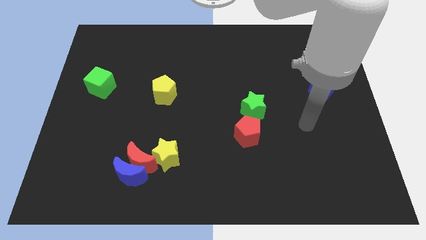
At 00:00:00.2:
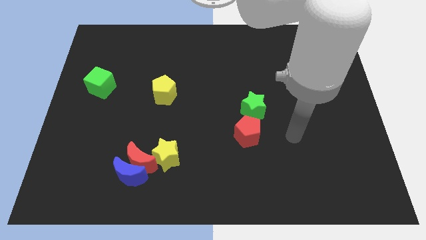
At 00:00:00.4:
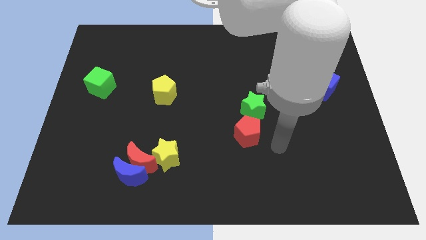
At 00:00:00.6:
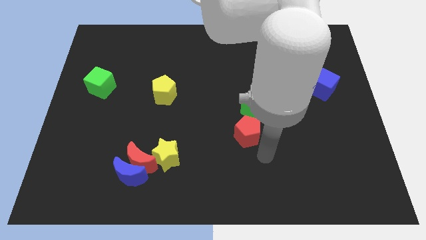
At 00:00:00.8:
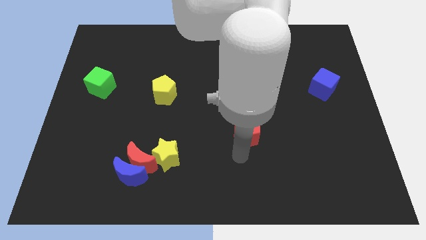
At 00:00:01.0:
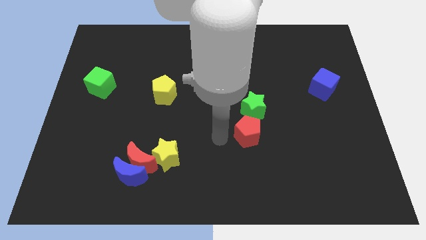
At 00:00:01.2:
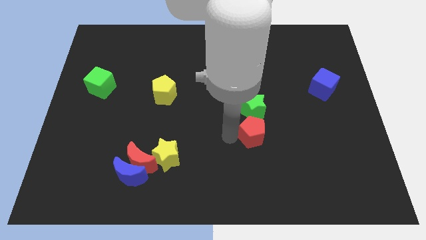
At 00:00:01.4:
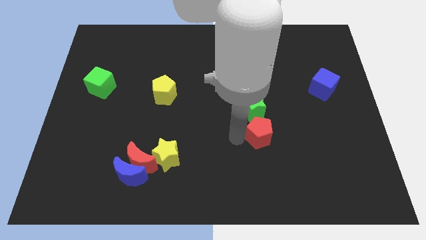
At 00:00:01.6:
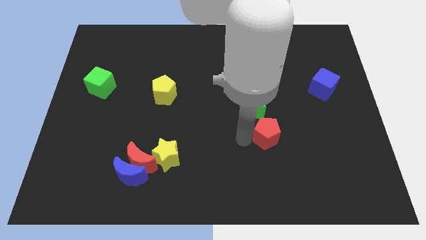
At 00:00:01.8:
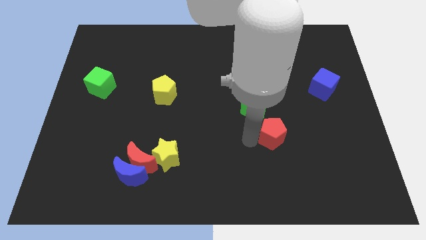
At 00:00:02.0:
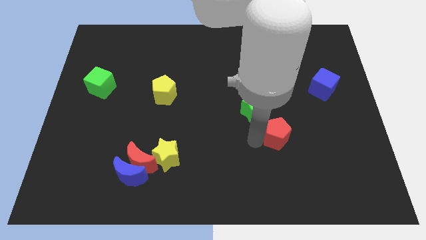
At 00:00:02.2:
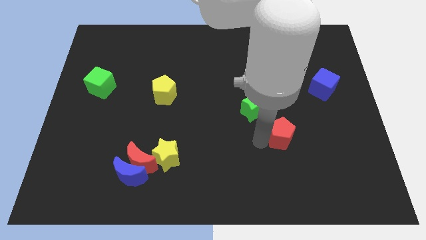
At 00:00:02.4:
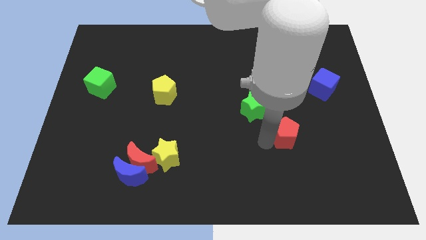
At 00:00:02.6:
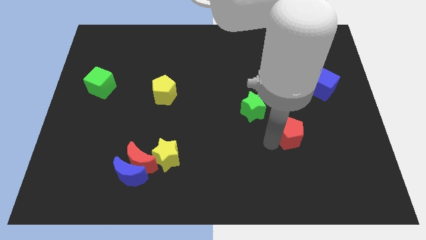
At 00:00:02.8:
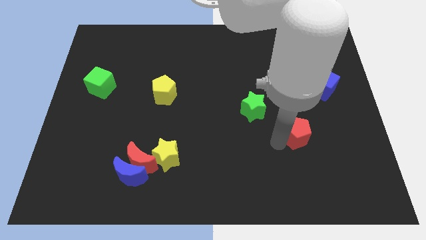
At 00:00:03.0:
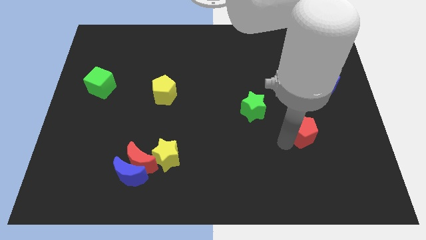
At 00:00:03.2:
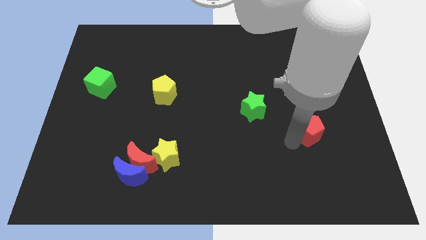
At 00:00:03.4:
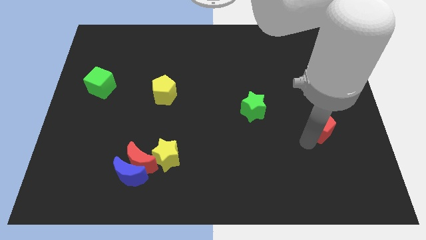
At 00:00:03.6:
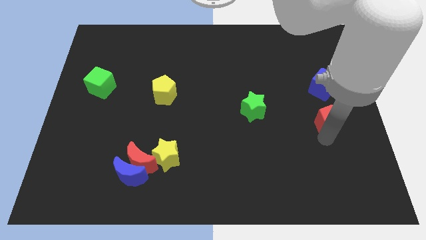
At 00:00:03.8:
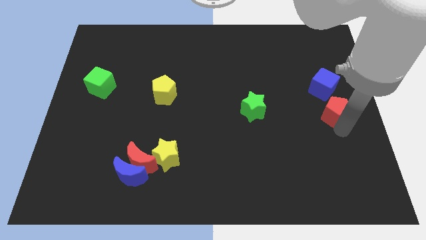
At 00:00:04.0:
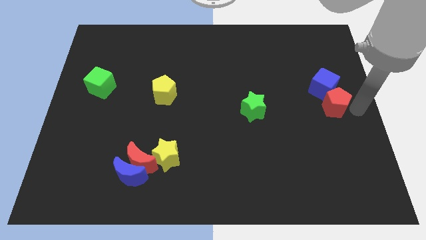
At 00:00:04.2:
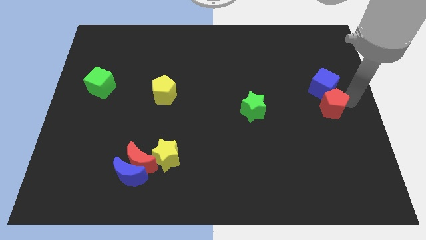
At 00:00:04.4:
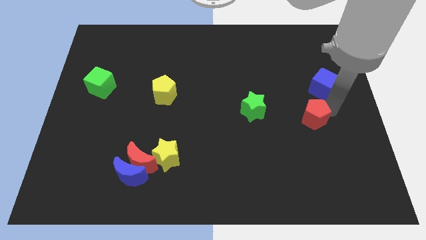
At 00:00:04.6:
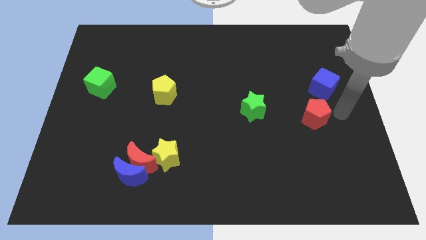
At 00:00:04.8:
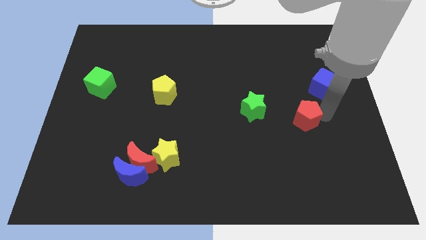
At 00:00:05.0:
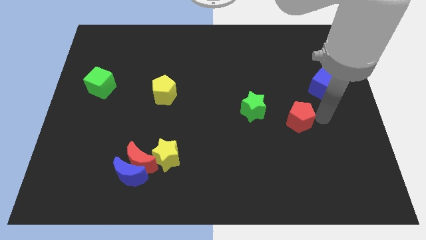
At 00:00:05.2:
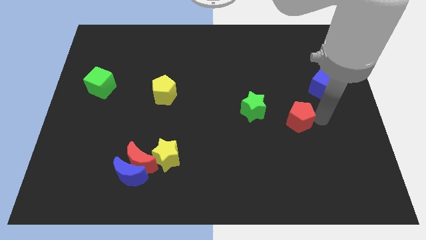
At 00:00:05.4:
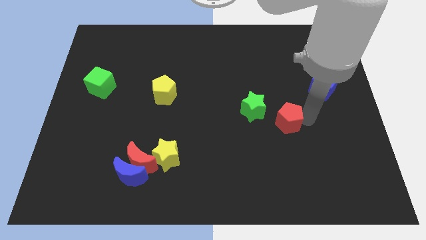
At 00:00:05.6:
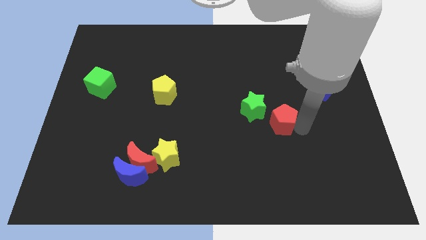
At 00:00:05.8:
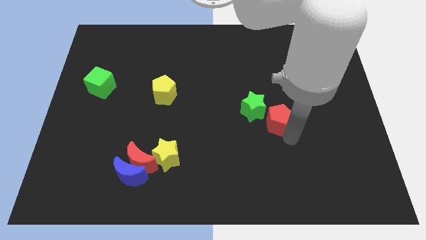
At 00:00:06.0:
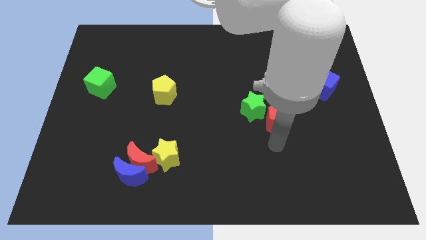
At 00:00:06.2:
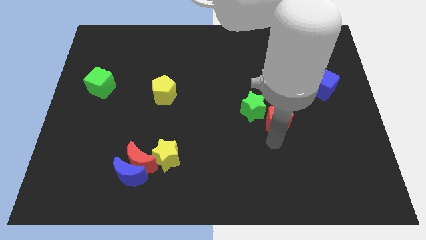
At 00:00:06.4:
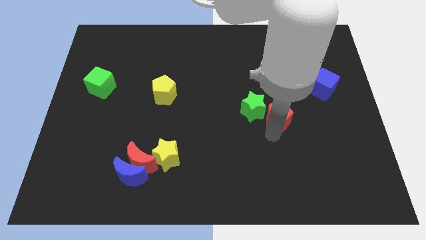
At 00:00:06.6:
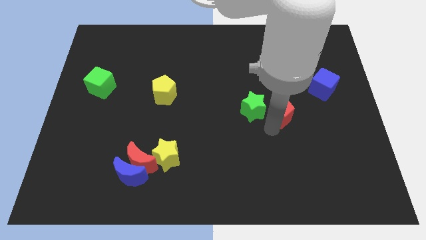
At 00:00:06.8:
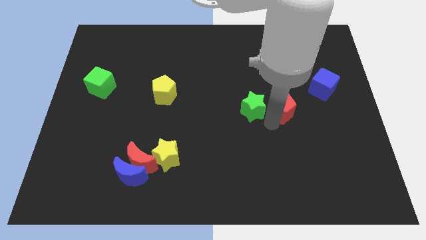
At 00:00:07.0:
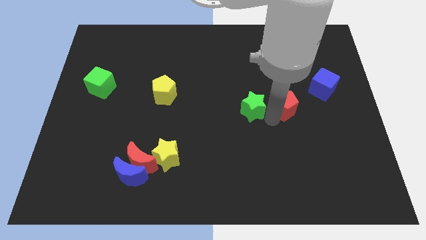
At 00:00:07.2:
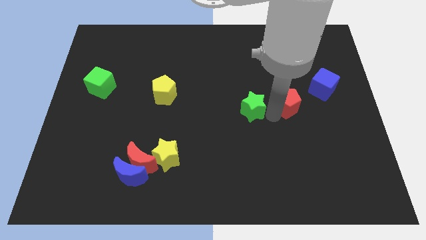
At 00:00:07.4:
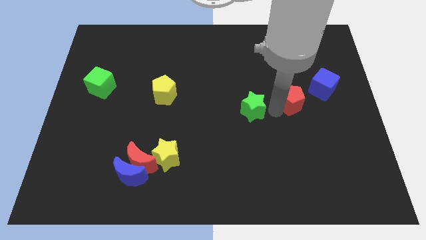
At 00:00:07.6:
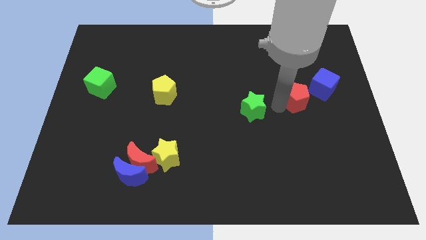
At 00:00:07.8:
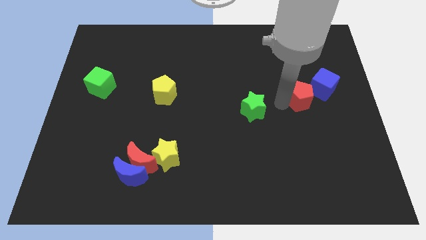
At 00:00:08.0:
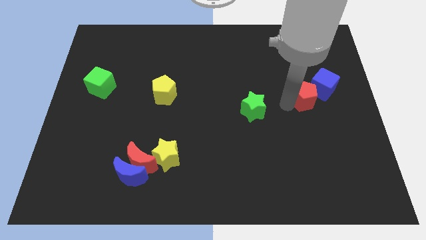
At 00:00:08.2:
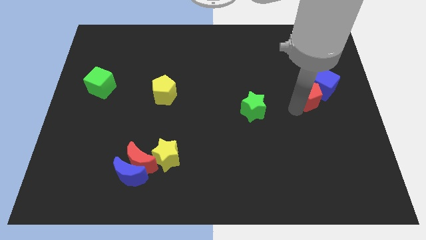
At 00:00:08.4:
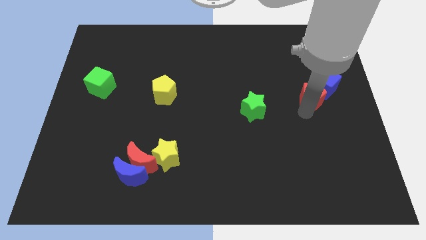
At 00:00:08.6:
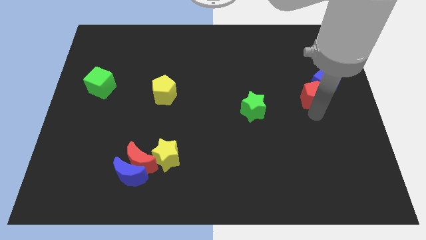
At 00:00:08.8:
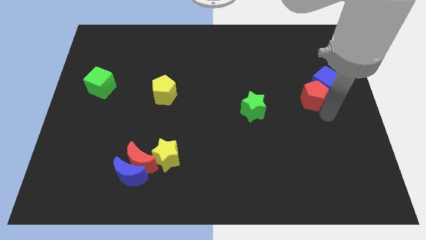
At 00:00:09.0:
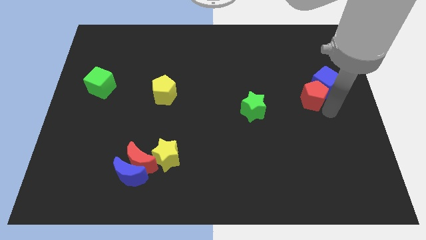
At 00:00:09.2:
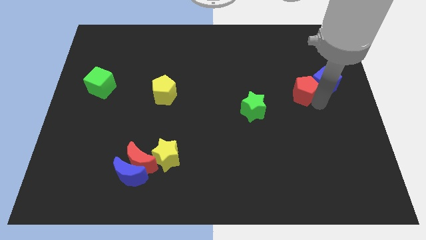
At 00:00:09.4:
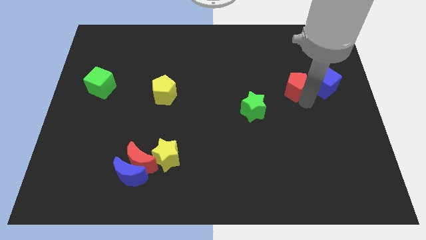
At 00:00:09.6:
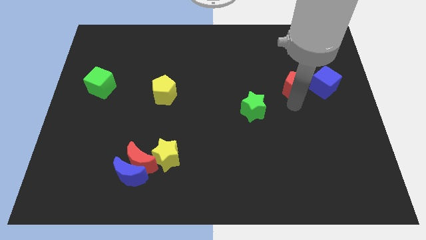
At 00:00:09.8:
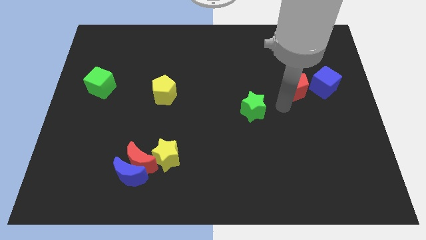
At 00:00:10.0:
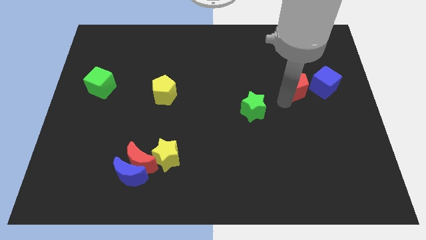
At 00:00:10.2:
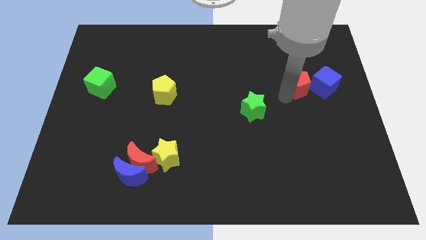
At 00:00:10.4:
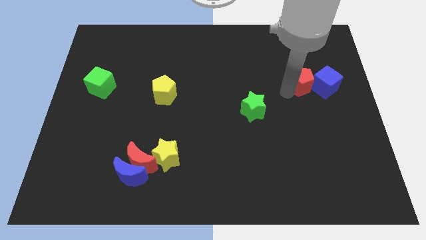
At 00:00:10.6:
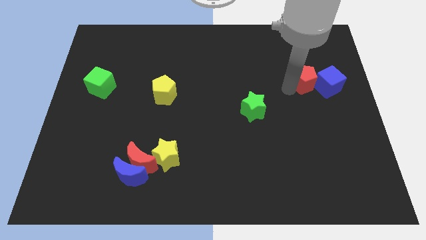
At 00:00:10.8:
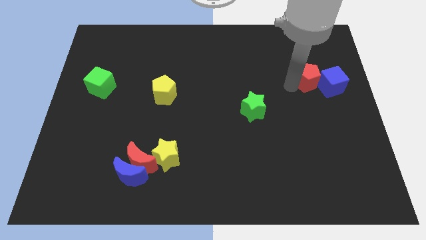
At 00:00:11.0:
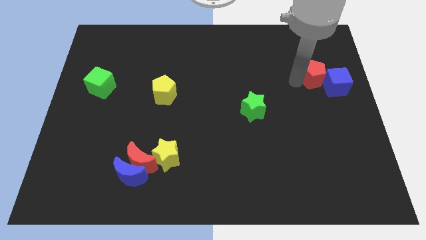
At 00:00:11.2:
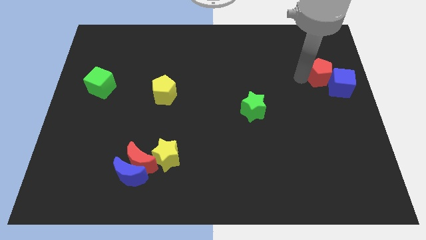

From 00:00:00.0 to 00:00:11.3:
slide the red pentagon to the top side of the blue cube

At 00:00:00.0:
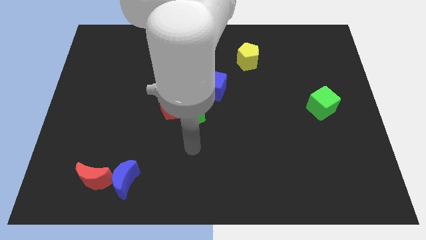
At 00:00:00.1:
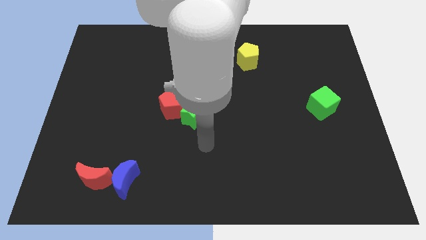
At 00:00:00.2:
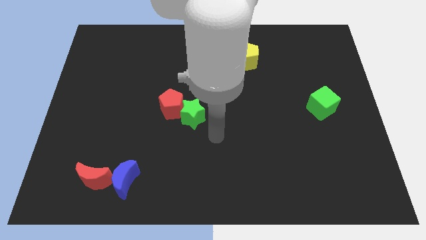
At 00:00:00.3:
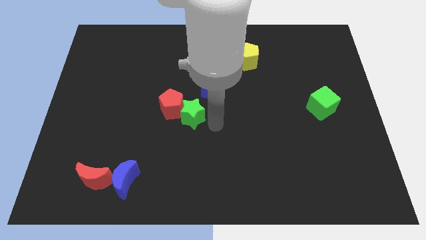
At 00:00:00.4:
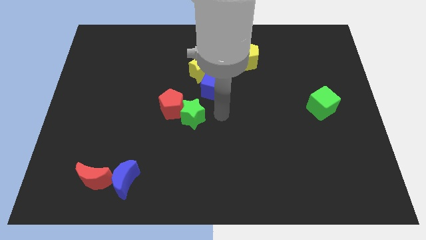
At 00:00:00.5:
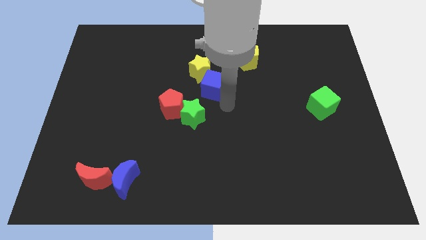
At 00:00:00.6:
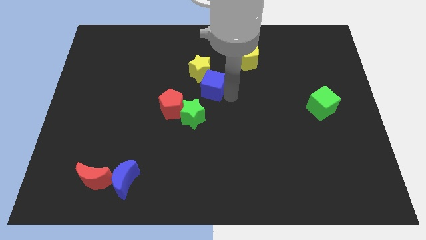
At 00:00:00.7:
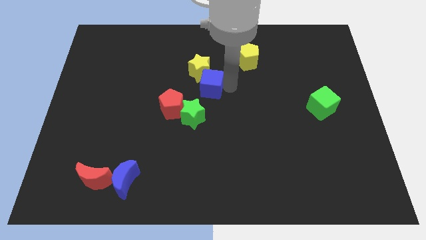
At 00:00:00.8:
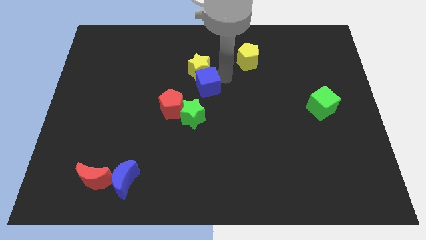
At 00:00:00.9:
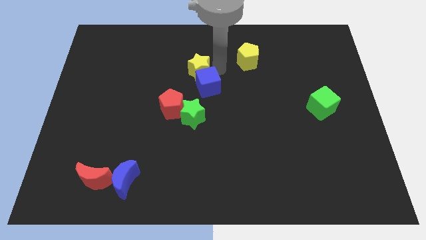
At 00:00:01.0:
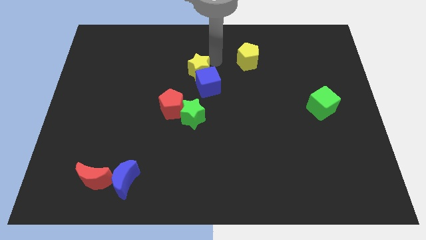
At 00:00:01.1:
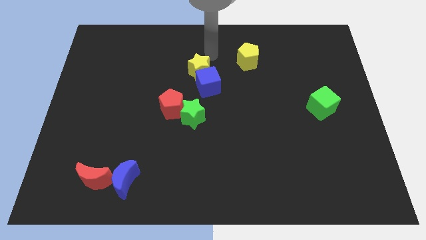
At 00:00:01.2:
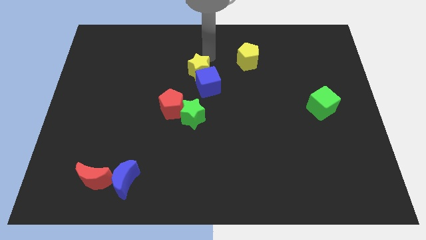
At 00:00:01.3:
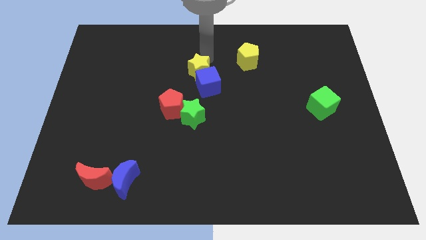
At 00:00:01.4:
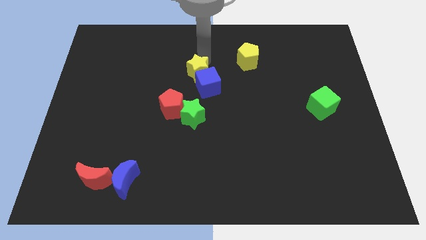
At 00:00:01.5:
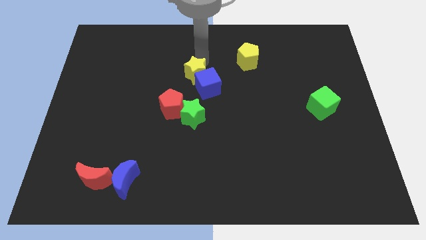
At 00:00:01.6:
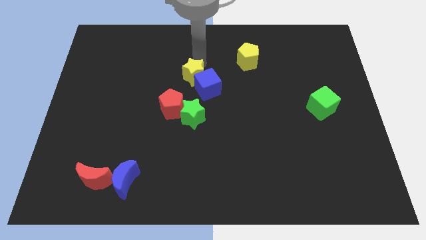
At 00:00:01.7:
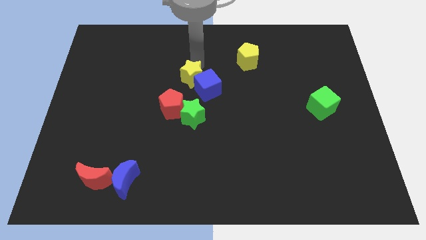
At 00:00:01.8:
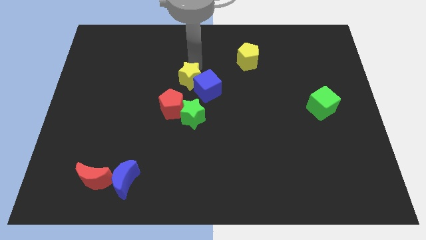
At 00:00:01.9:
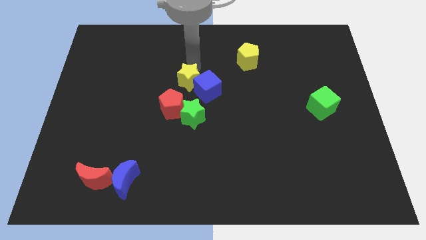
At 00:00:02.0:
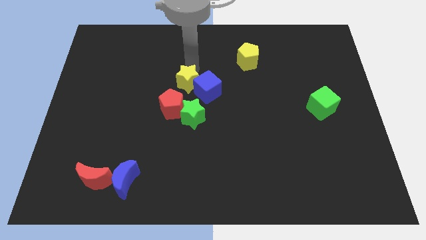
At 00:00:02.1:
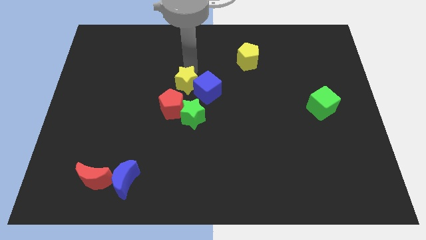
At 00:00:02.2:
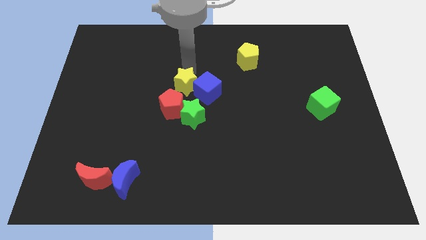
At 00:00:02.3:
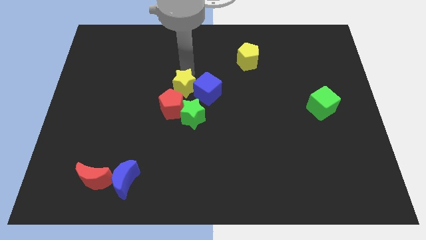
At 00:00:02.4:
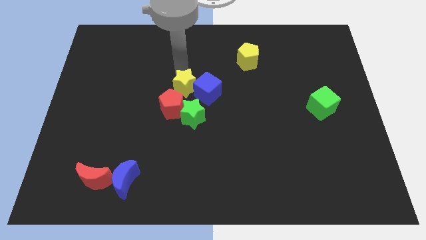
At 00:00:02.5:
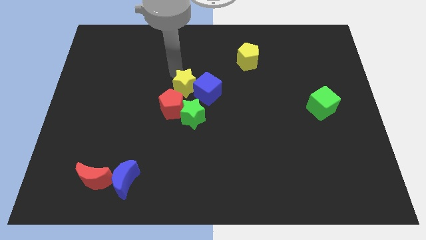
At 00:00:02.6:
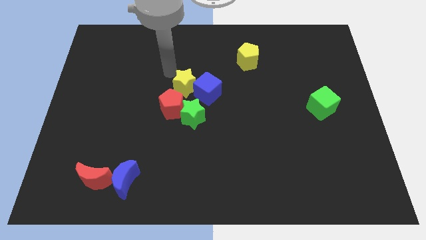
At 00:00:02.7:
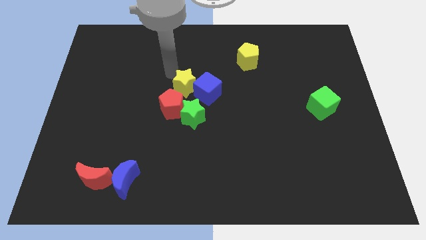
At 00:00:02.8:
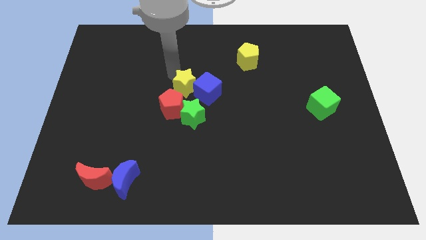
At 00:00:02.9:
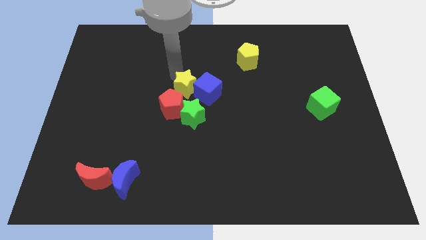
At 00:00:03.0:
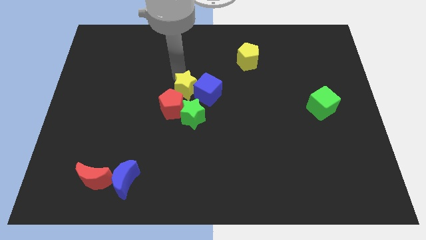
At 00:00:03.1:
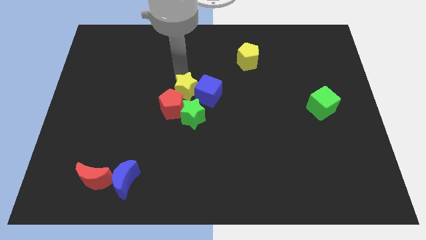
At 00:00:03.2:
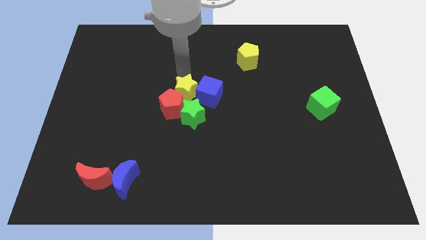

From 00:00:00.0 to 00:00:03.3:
move the yellow star to the right side of the red pentagon
